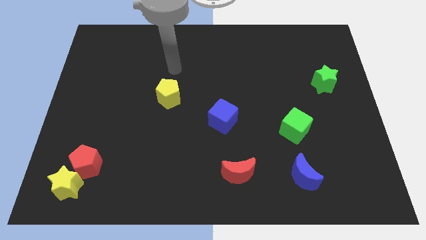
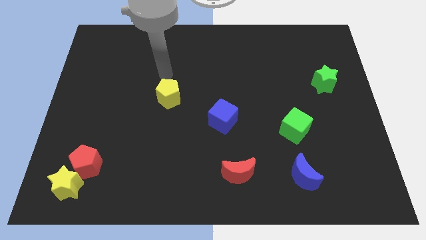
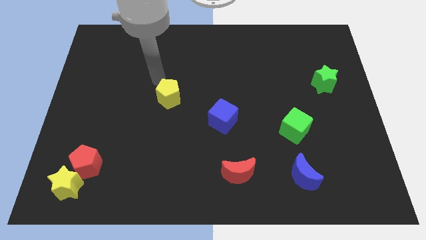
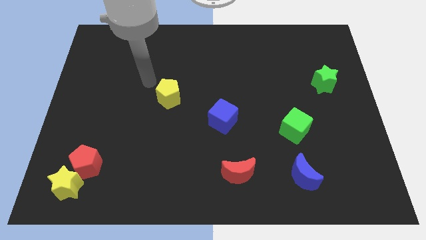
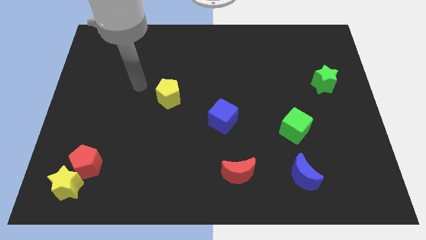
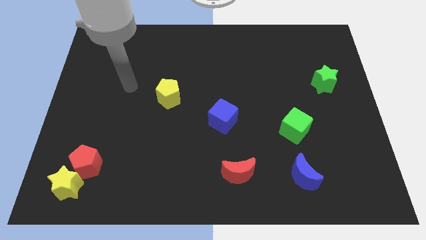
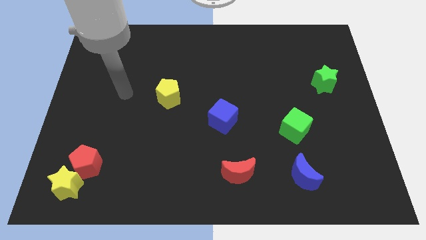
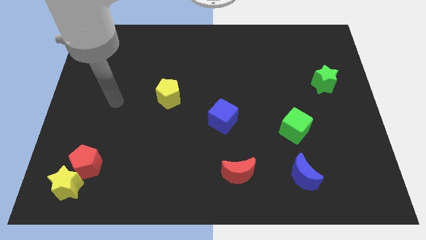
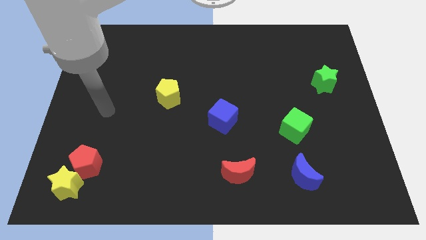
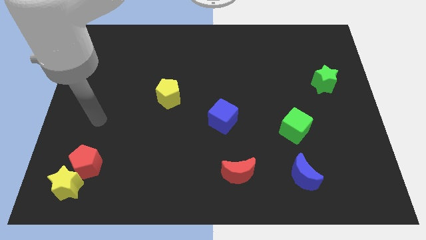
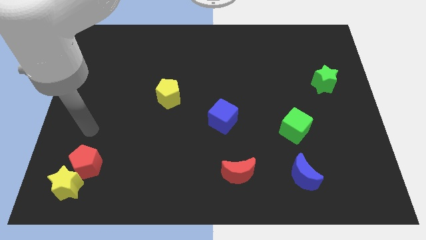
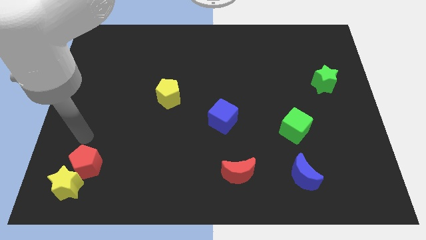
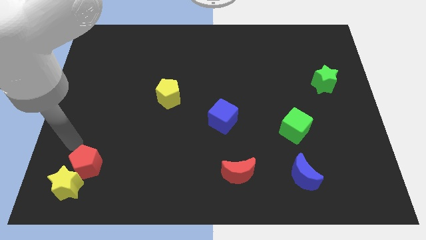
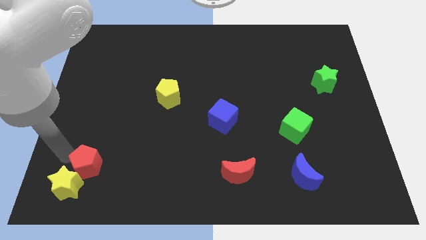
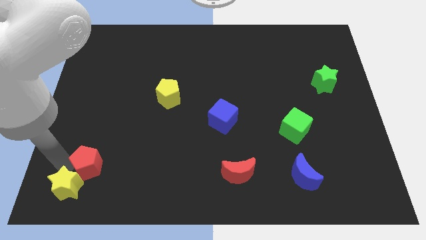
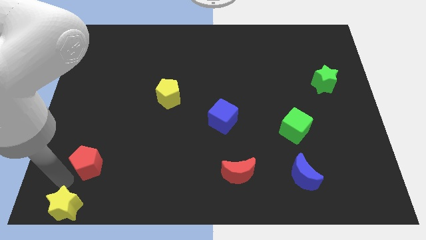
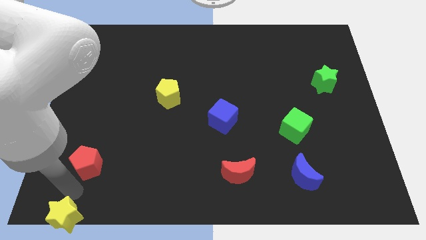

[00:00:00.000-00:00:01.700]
move the red pentagon away from the yellow star

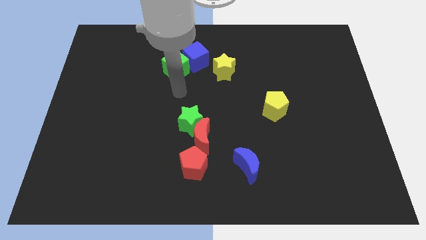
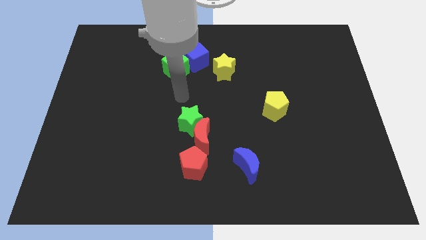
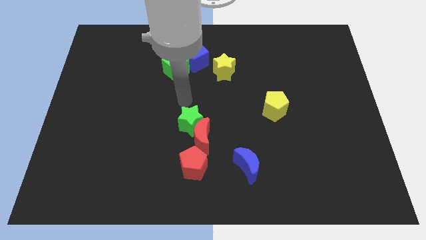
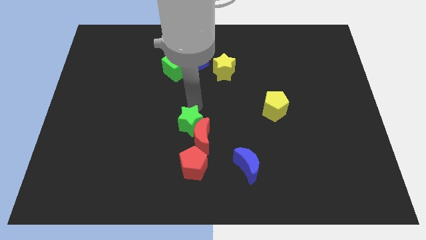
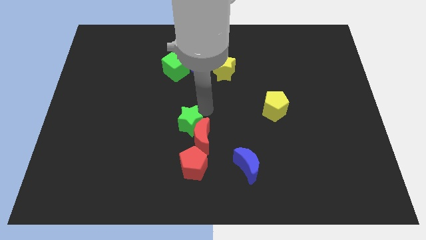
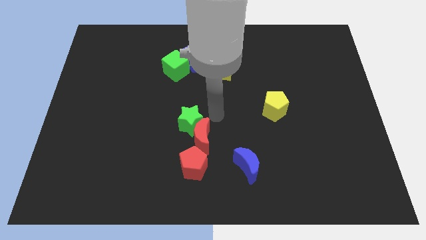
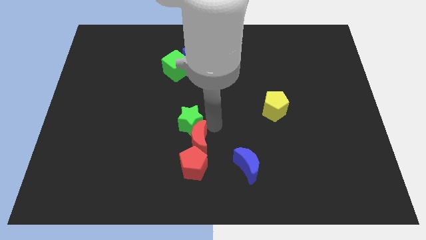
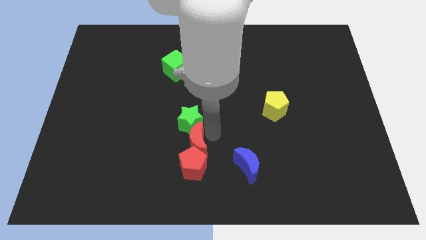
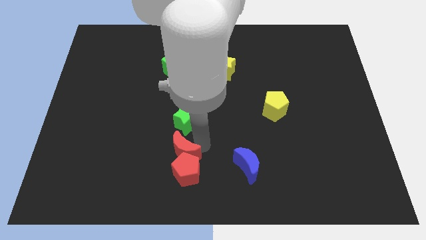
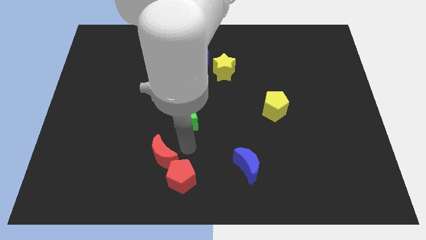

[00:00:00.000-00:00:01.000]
pull the green star apart from the red moon

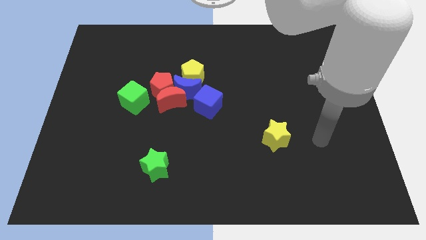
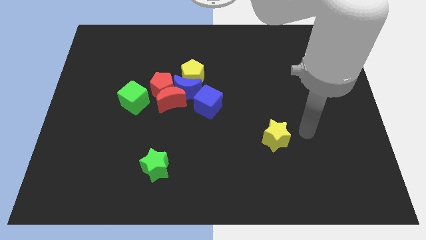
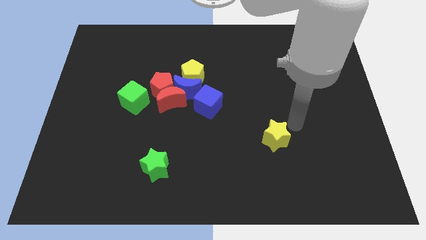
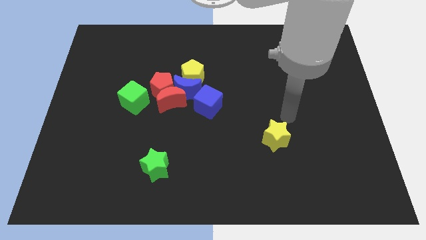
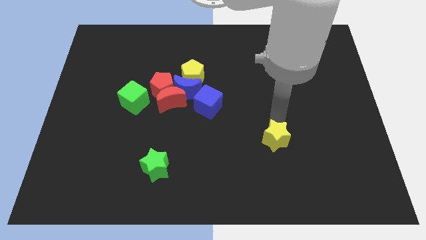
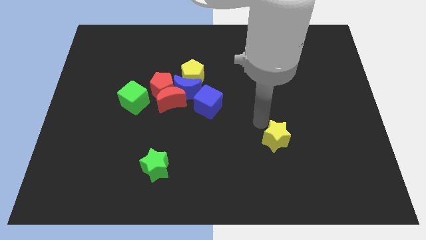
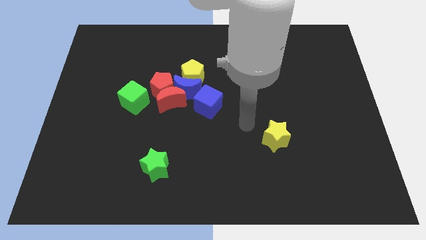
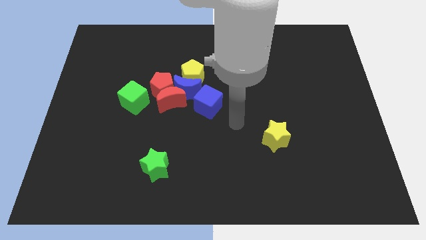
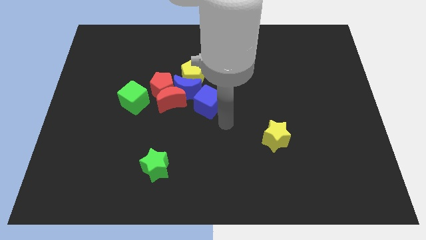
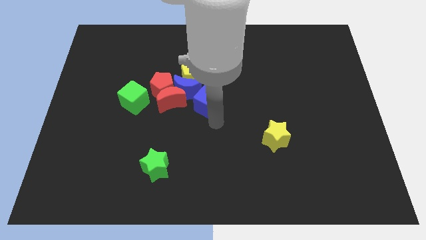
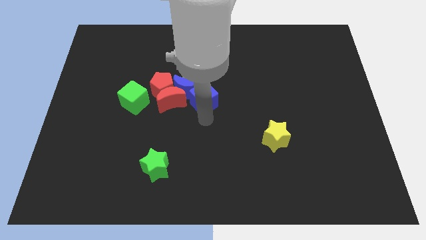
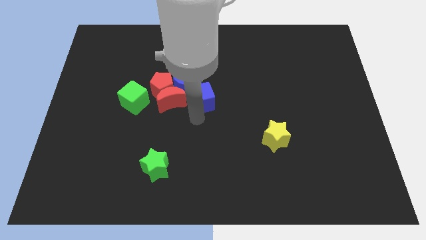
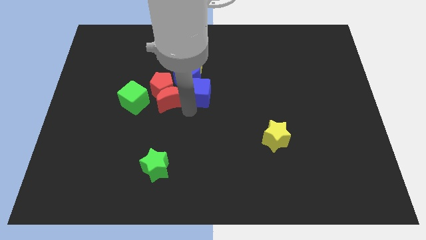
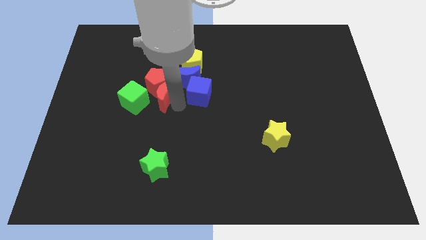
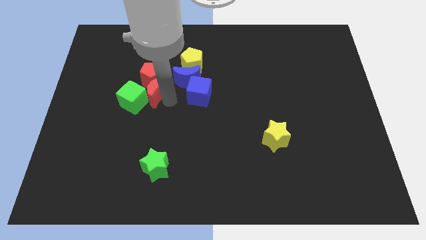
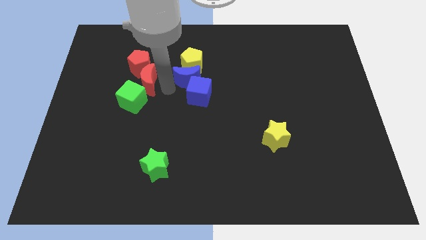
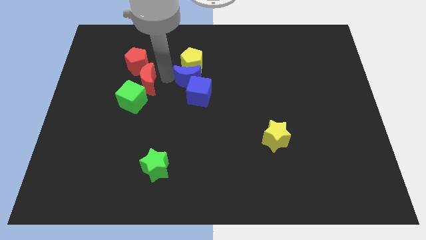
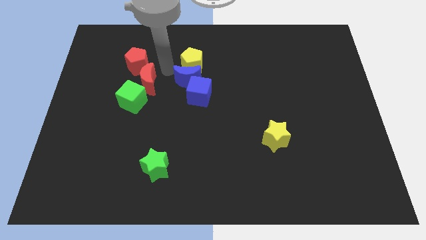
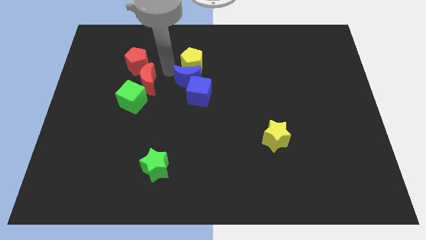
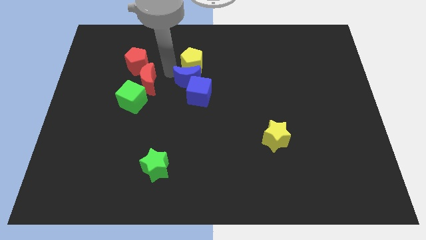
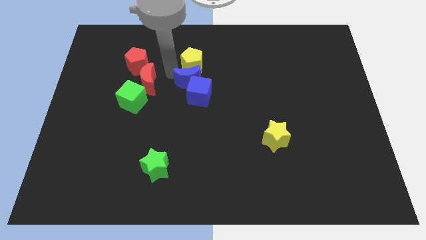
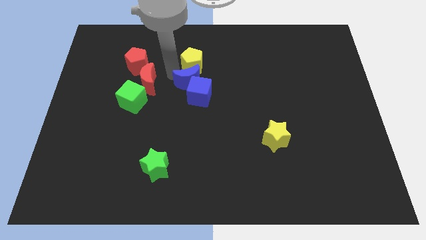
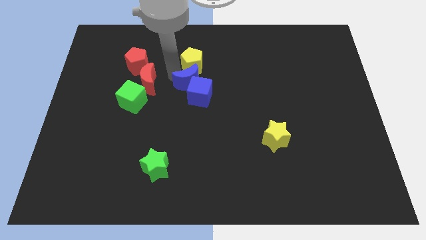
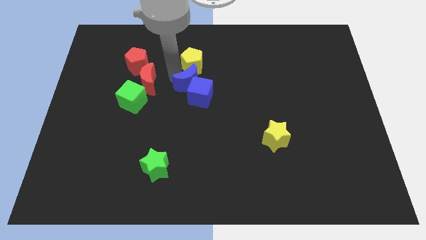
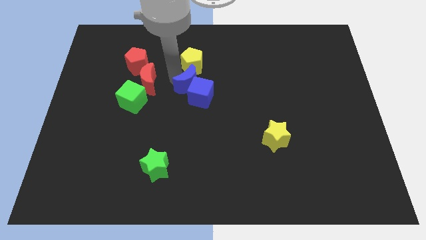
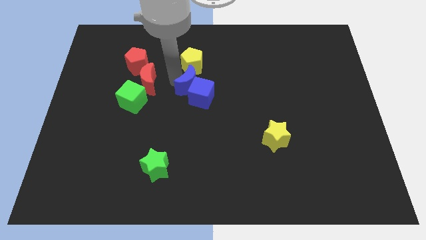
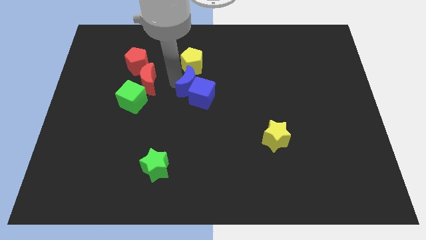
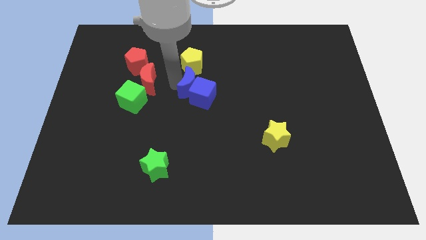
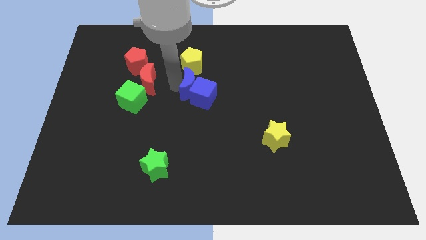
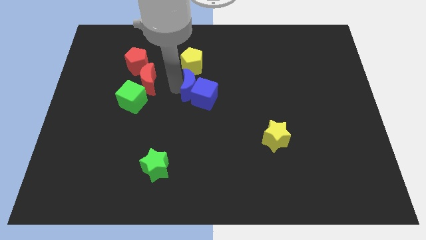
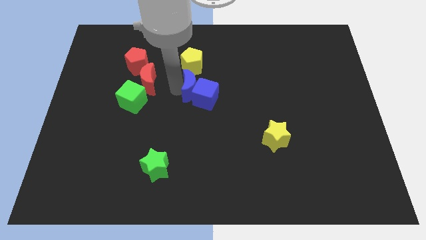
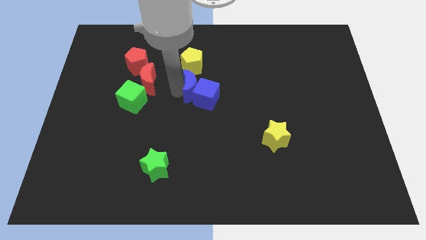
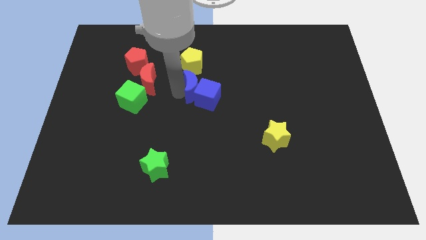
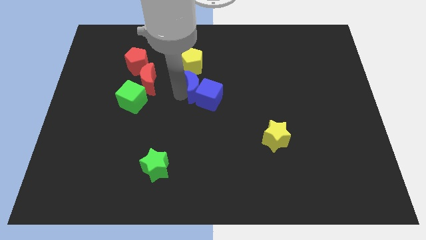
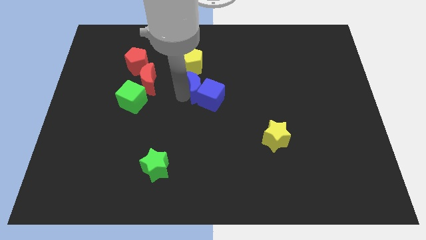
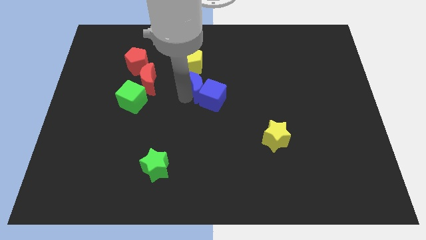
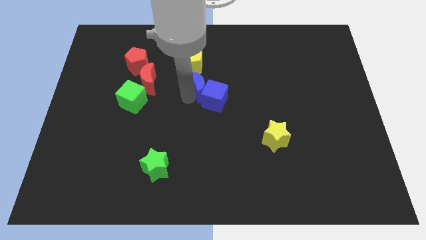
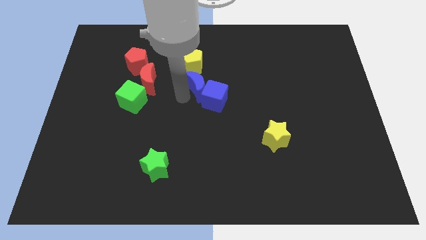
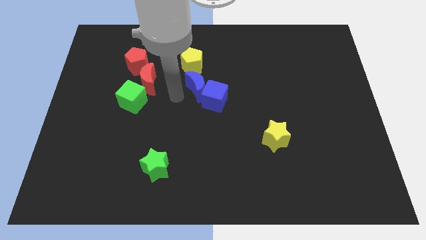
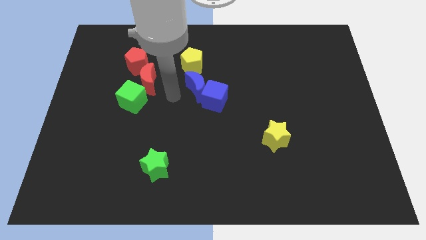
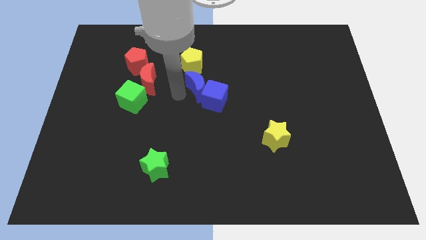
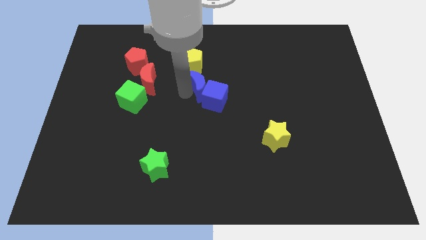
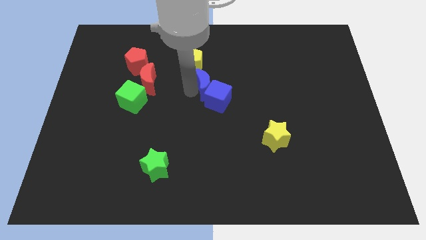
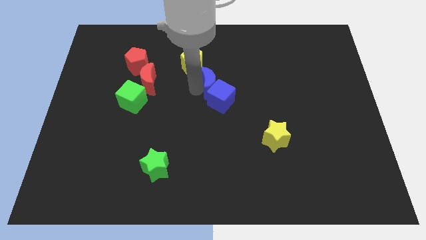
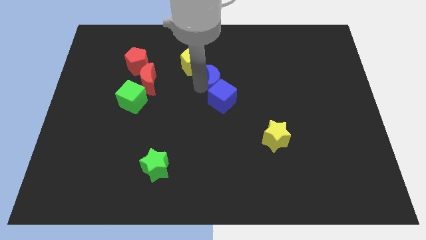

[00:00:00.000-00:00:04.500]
separate the blue moon from the clump

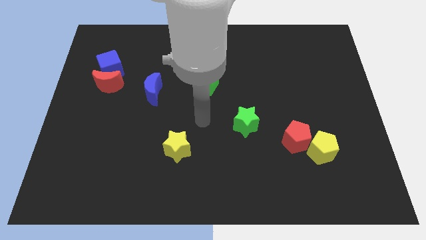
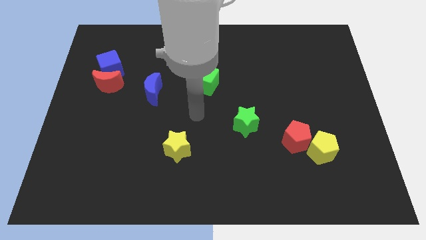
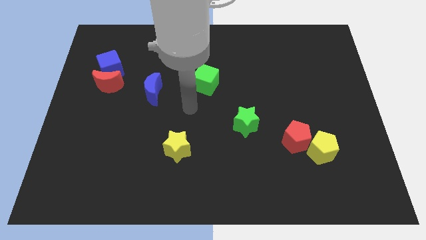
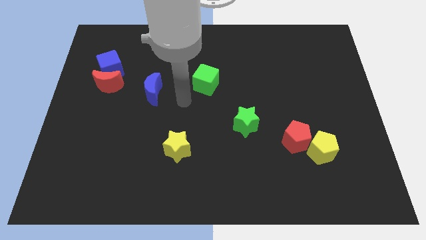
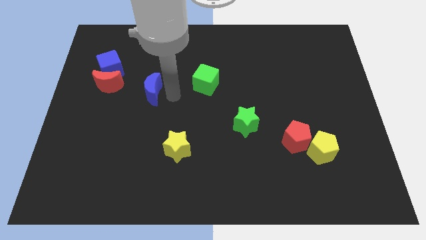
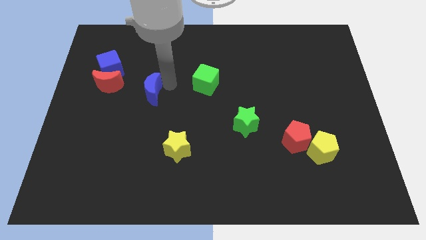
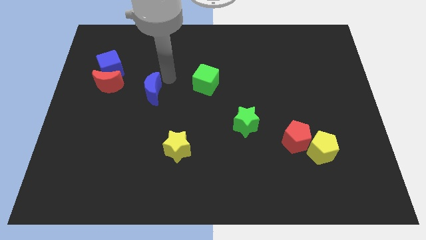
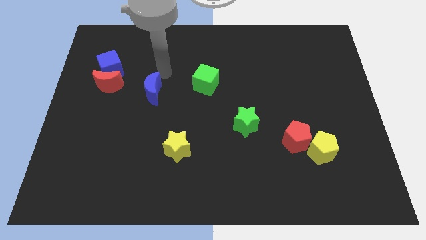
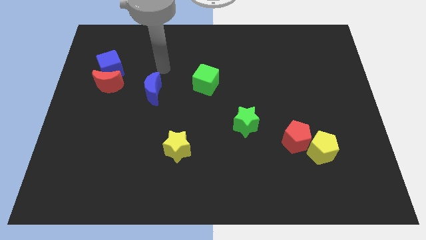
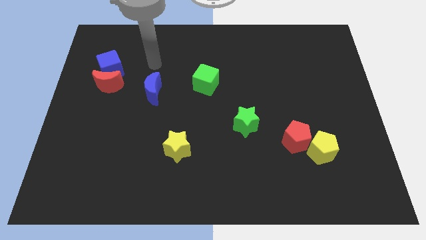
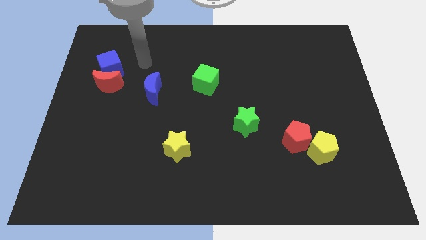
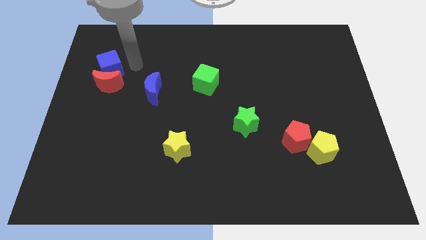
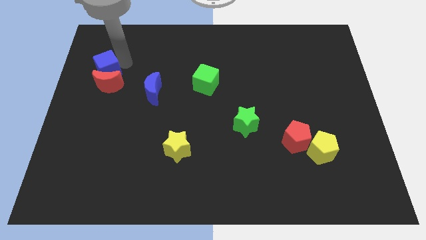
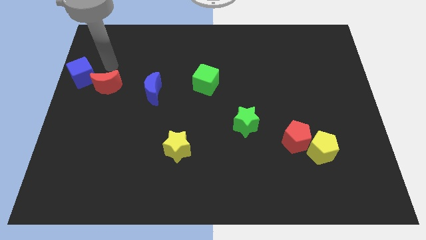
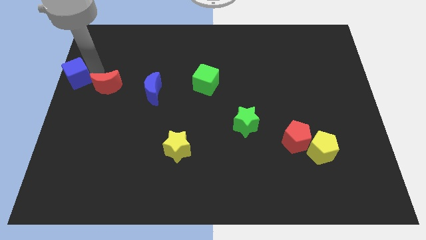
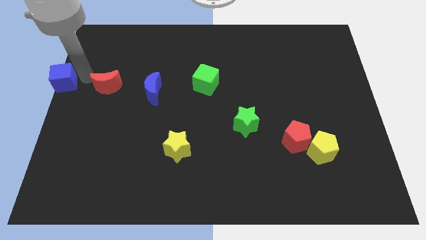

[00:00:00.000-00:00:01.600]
move the red moon away from the blue cube

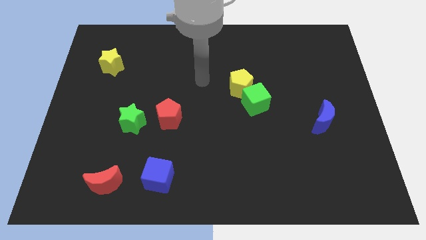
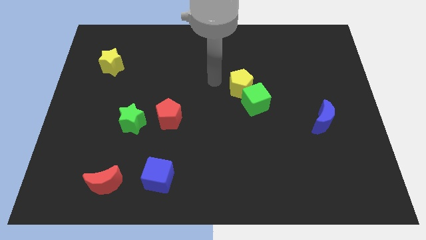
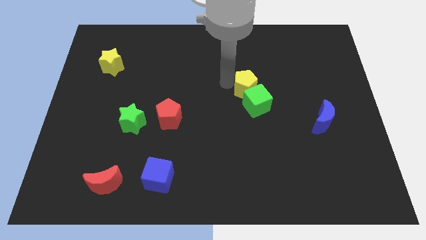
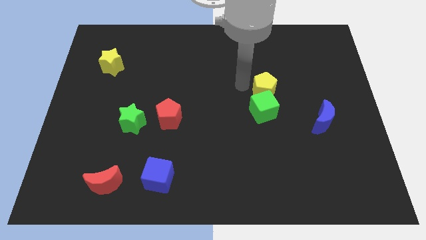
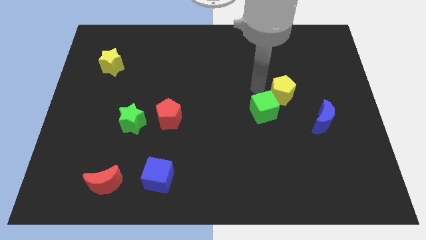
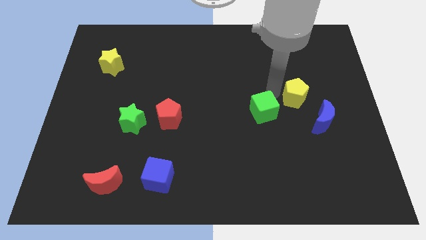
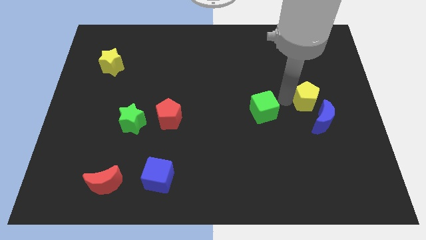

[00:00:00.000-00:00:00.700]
pull the green cube apart from the yellow pentagon
